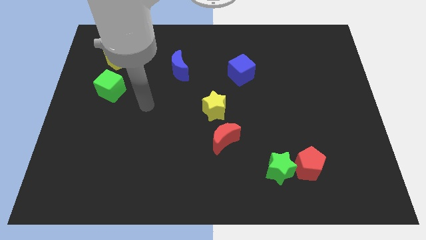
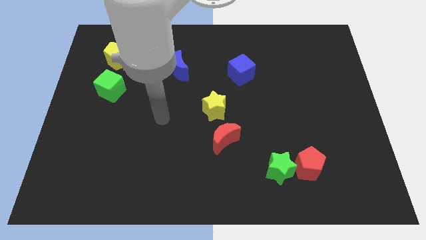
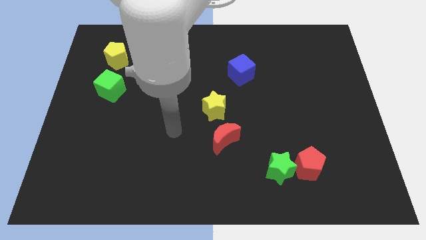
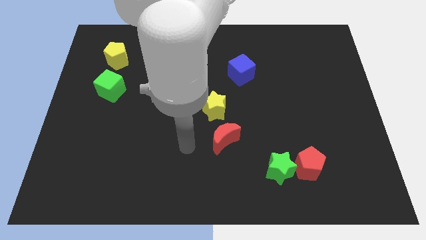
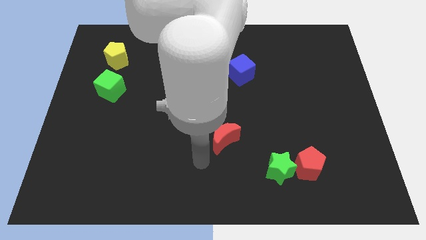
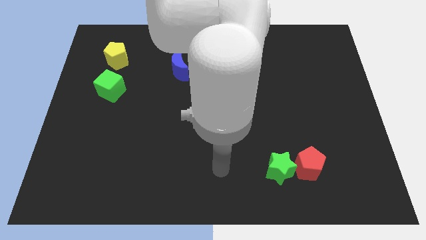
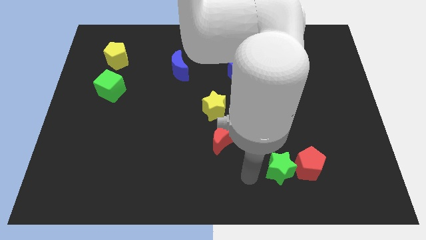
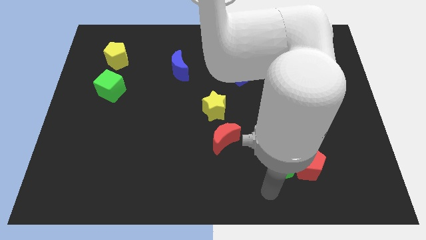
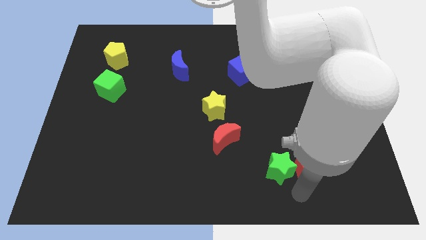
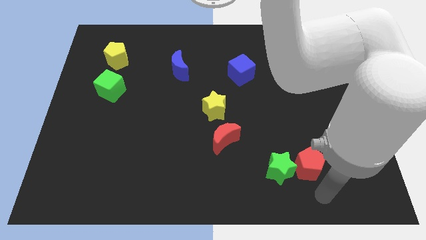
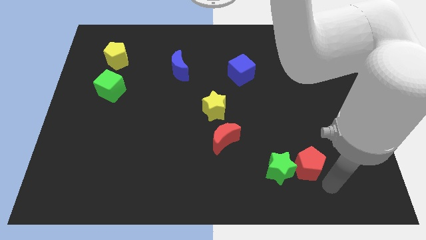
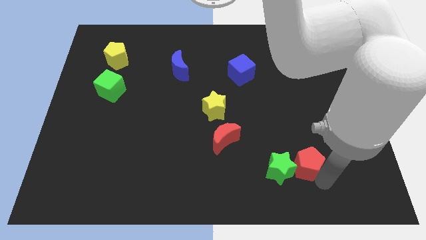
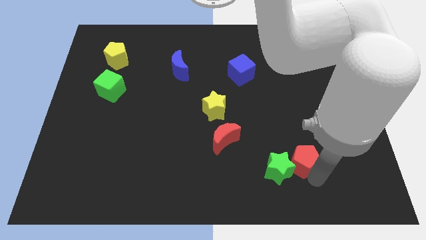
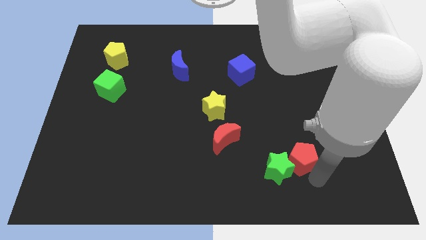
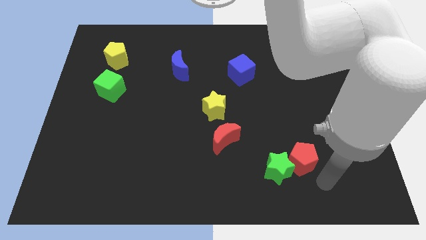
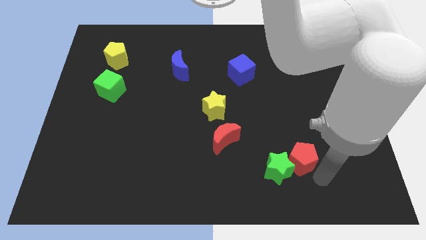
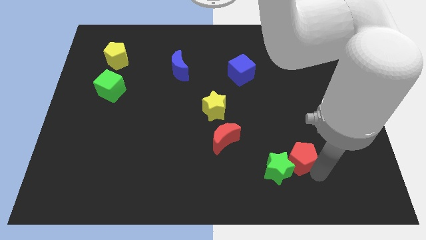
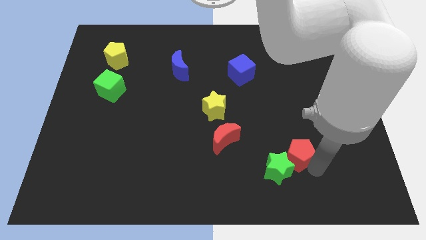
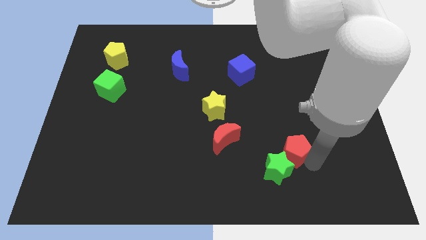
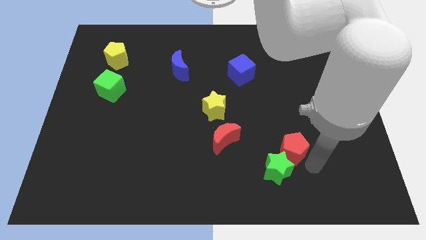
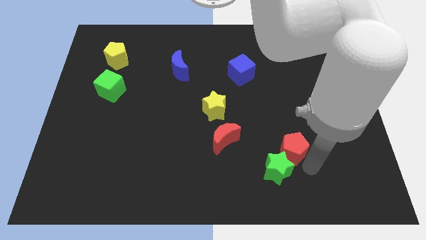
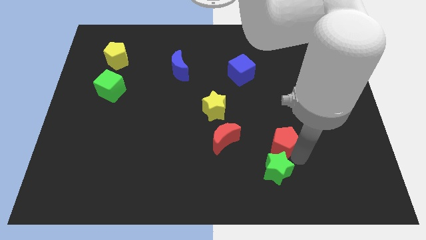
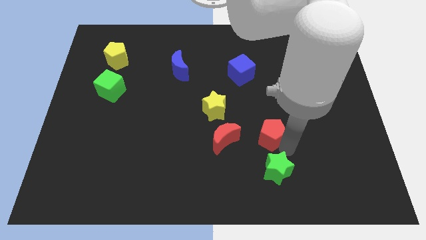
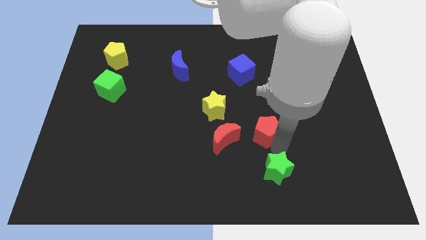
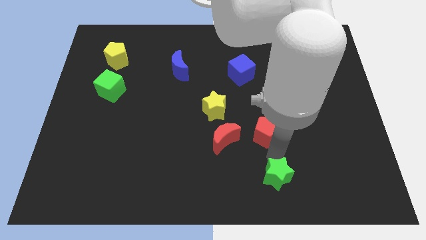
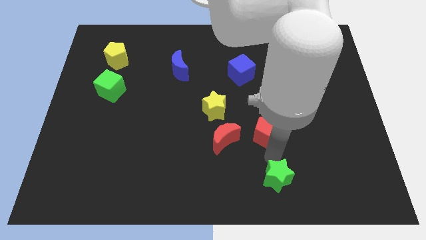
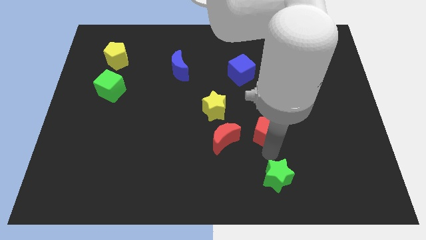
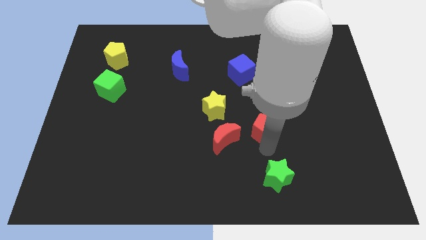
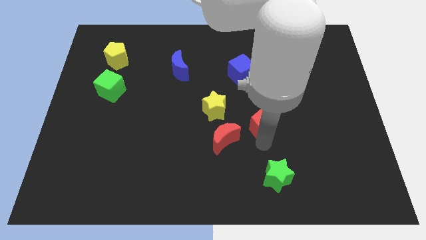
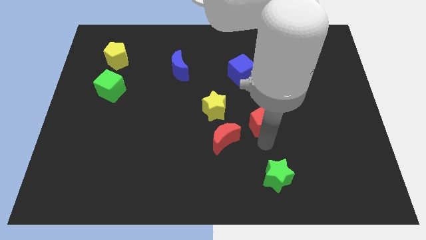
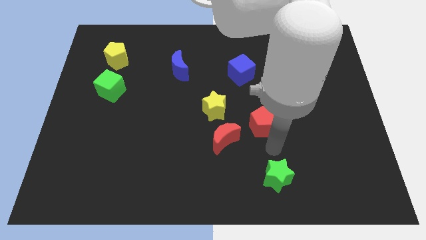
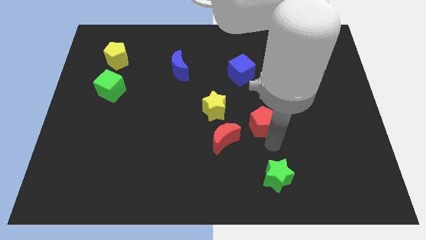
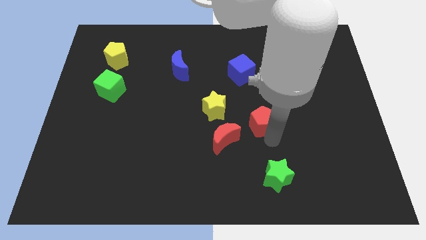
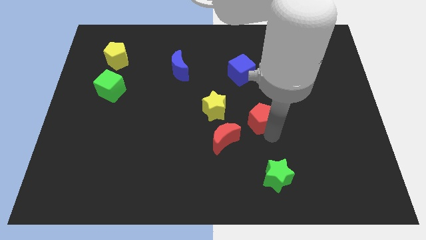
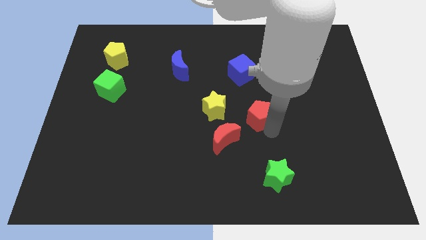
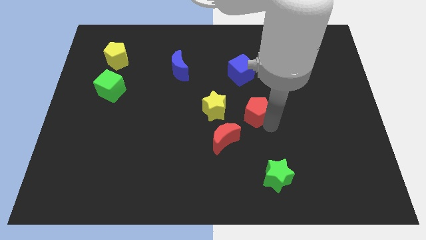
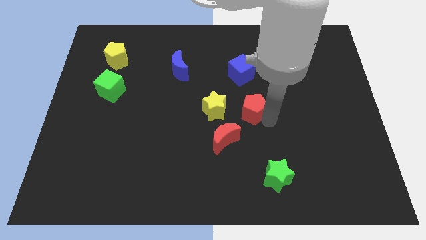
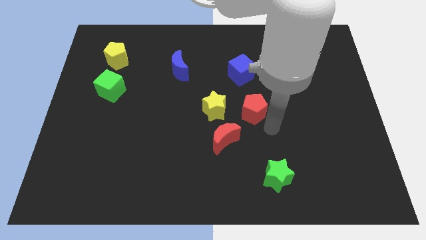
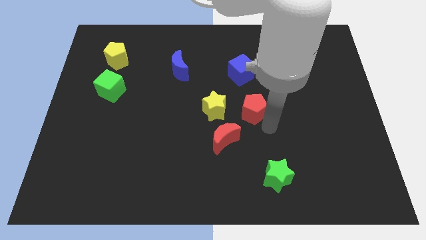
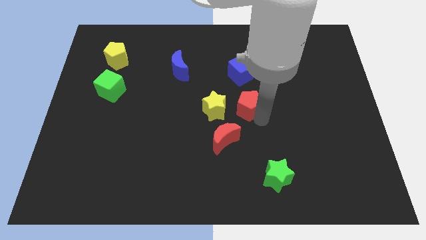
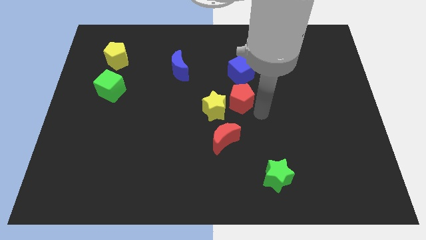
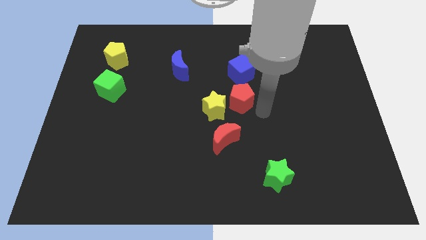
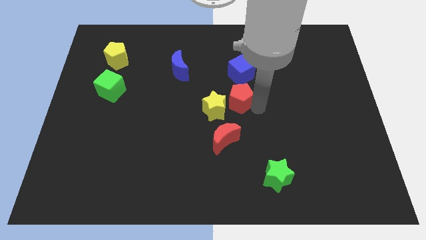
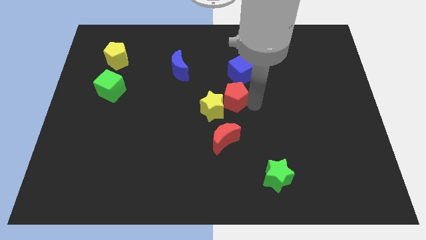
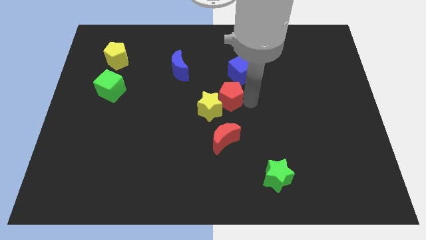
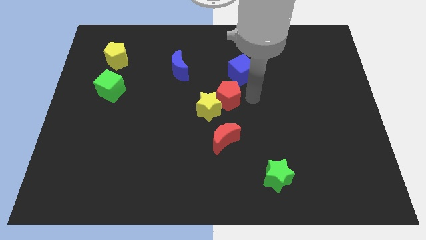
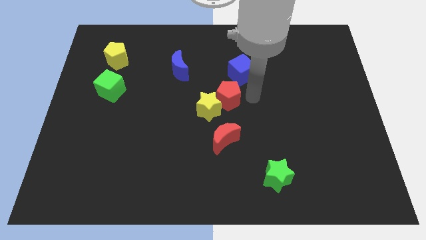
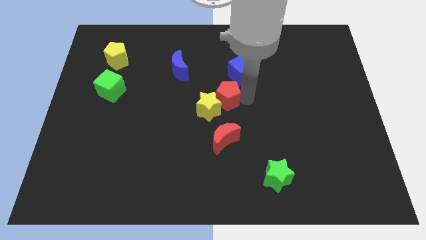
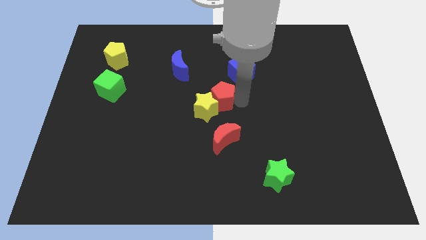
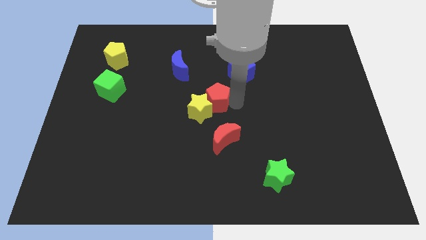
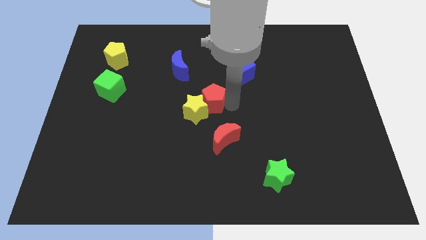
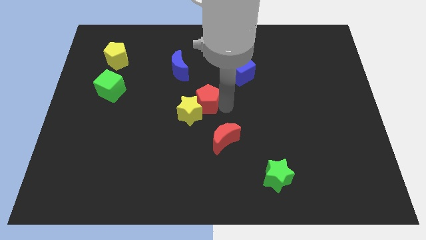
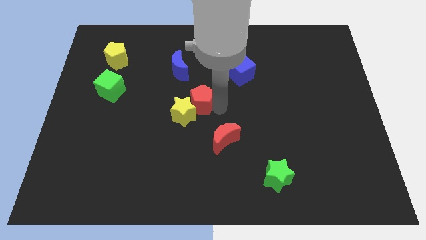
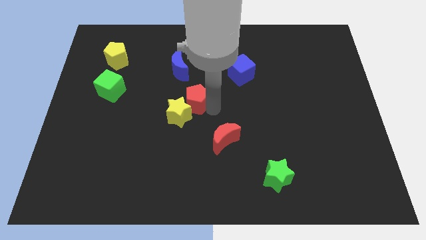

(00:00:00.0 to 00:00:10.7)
slide the red pentagon to the bottom of the blue moon
